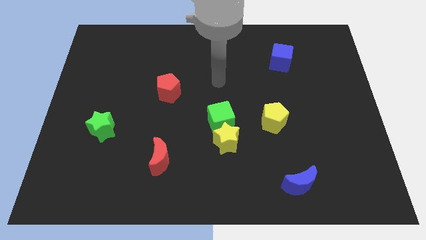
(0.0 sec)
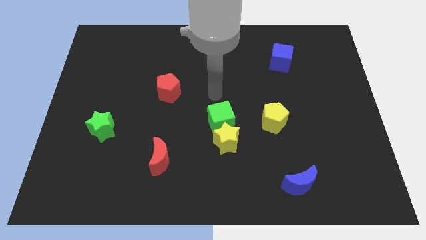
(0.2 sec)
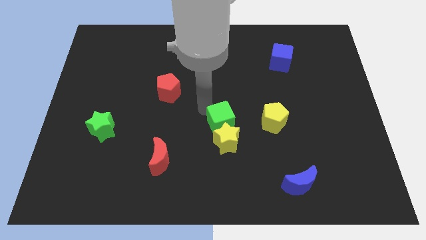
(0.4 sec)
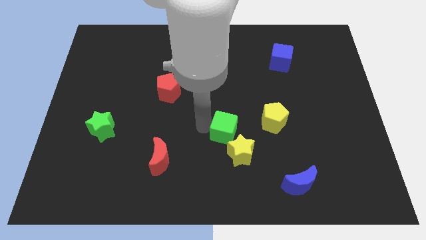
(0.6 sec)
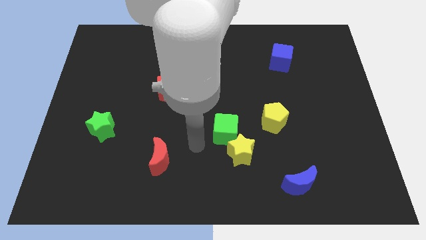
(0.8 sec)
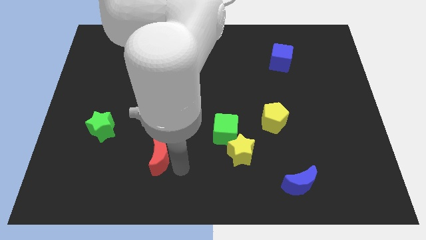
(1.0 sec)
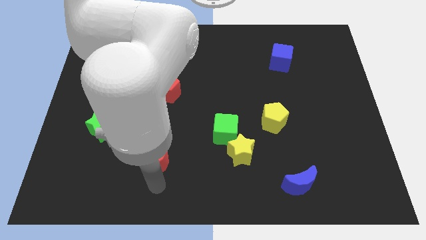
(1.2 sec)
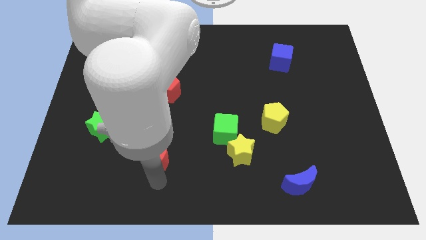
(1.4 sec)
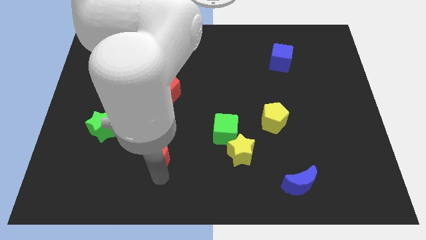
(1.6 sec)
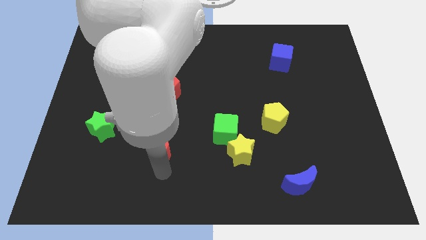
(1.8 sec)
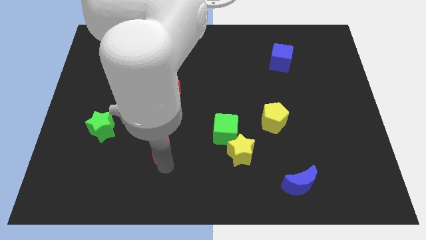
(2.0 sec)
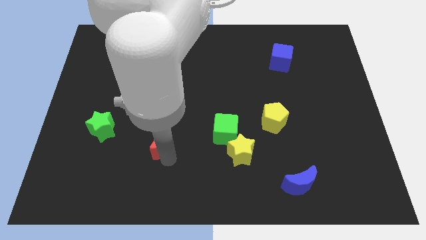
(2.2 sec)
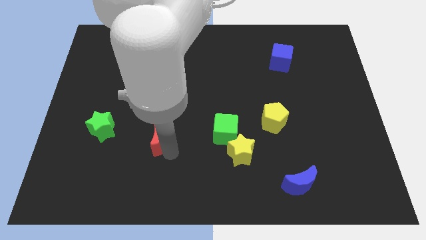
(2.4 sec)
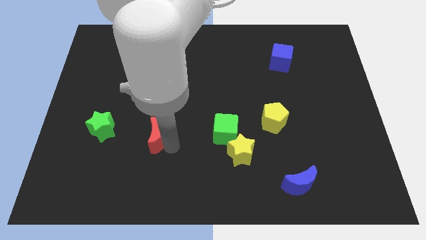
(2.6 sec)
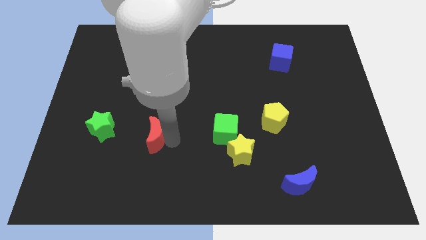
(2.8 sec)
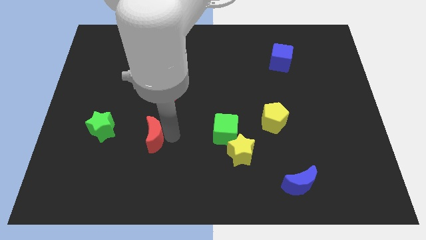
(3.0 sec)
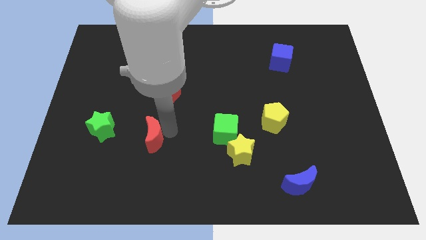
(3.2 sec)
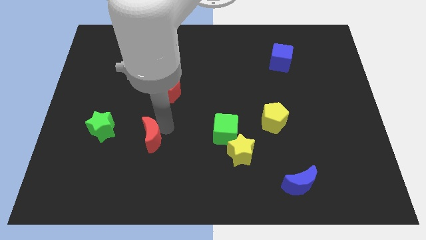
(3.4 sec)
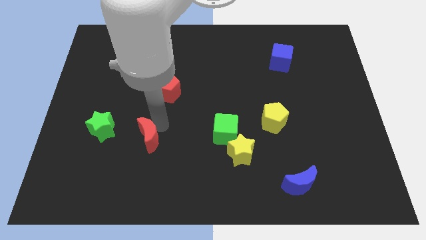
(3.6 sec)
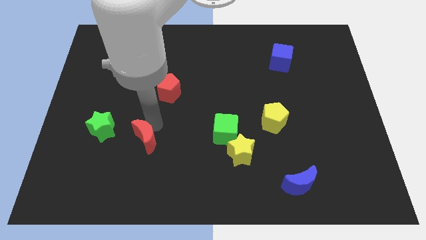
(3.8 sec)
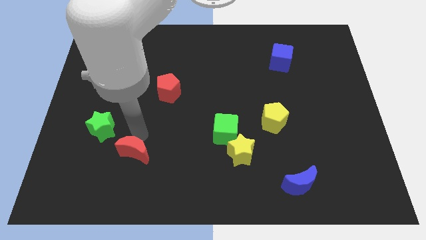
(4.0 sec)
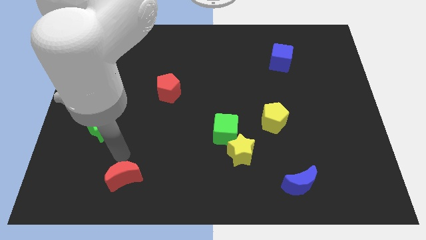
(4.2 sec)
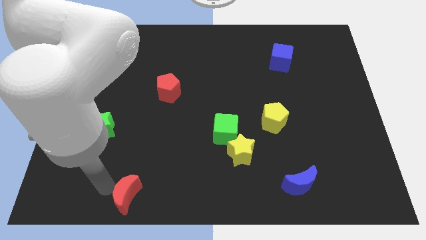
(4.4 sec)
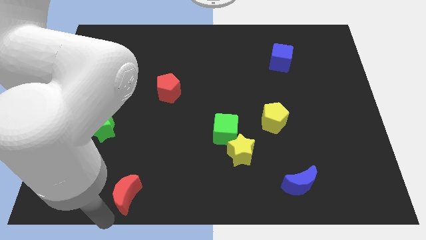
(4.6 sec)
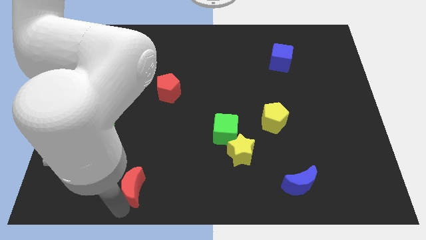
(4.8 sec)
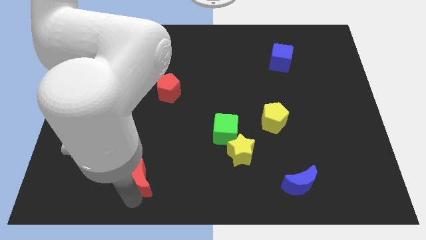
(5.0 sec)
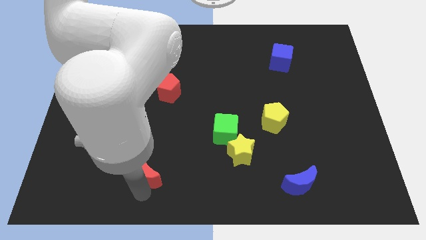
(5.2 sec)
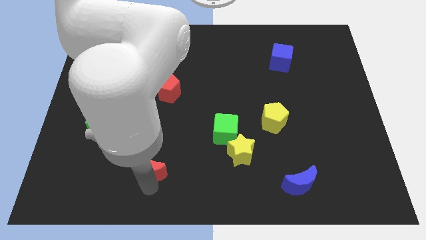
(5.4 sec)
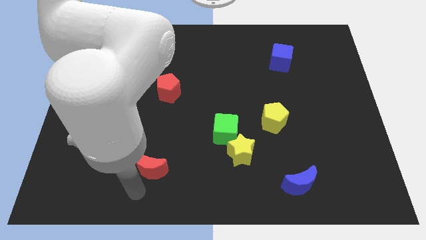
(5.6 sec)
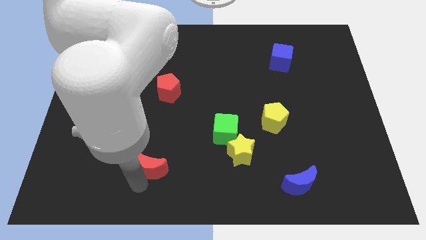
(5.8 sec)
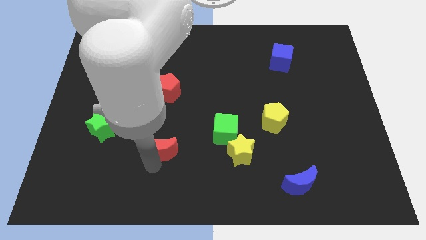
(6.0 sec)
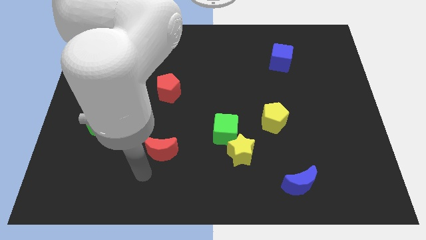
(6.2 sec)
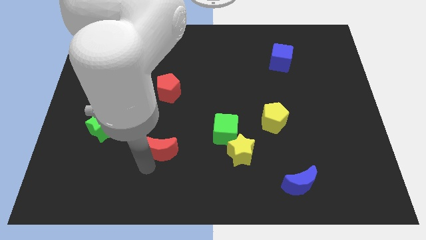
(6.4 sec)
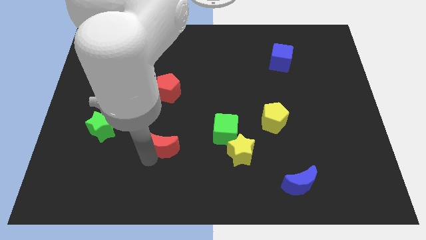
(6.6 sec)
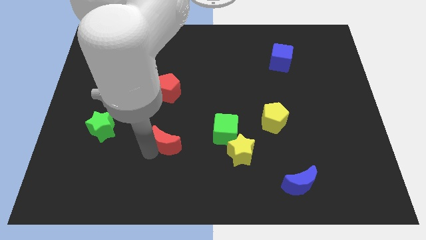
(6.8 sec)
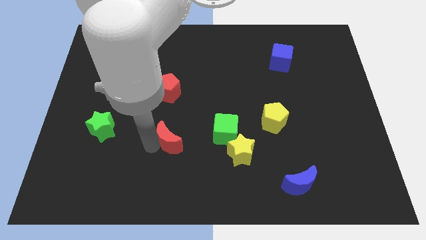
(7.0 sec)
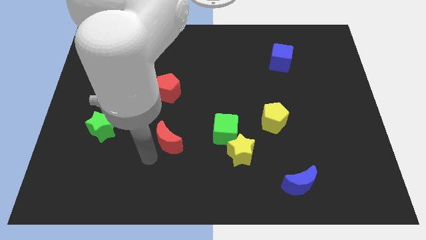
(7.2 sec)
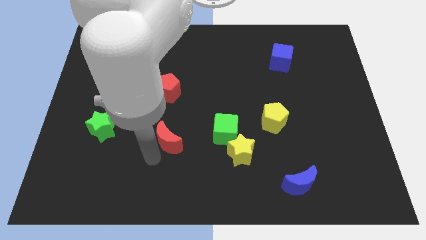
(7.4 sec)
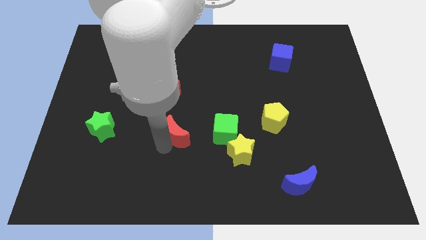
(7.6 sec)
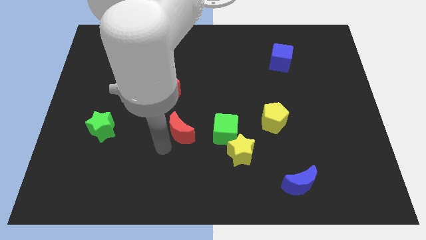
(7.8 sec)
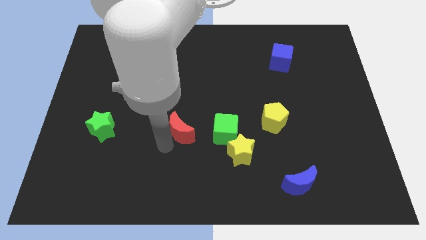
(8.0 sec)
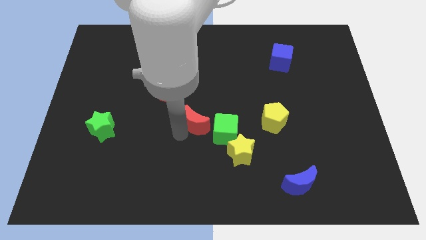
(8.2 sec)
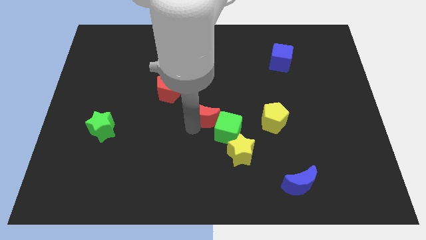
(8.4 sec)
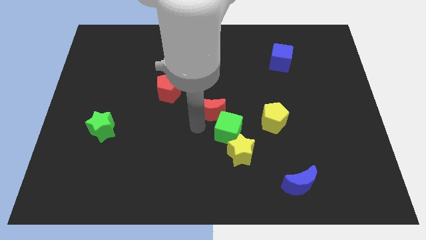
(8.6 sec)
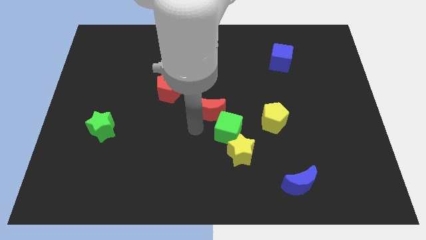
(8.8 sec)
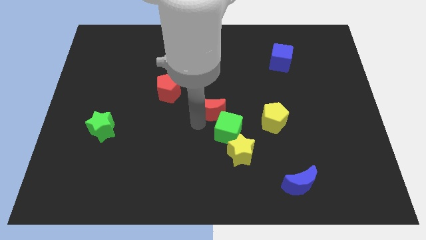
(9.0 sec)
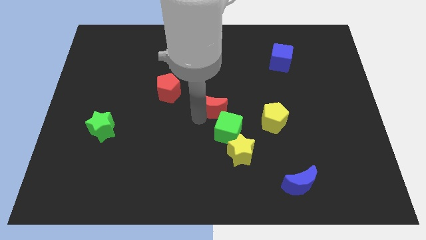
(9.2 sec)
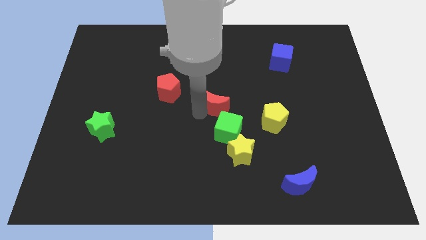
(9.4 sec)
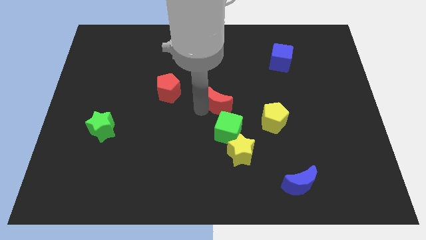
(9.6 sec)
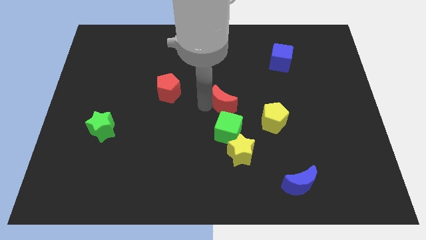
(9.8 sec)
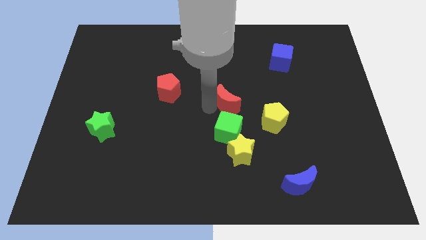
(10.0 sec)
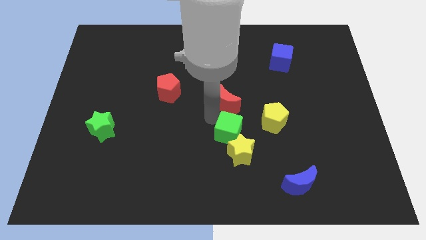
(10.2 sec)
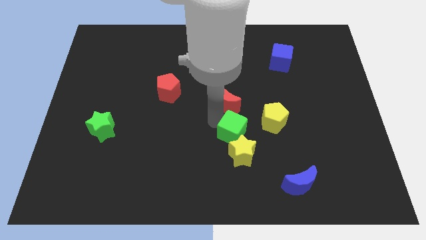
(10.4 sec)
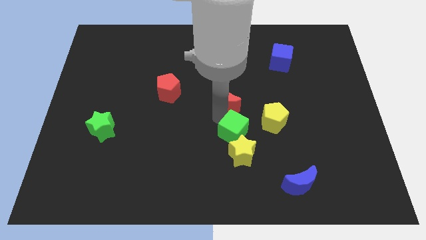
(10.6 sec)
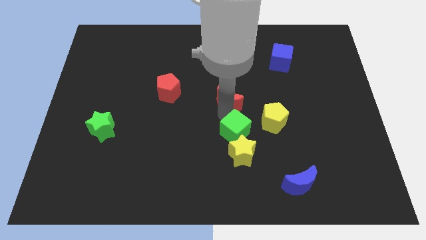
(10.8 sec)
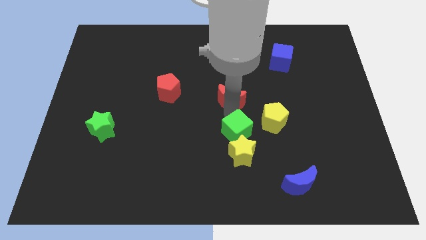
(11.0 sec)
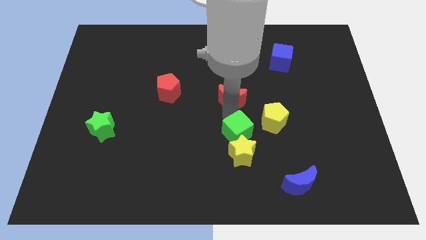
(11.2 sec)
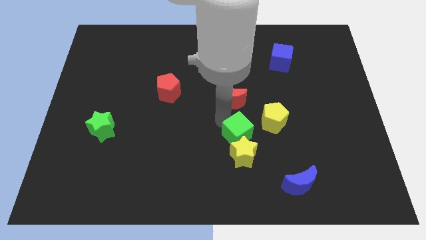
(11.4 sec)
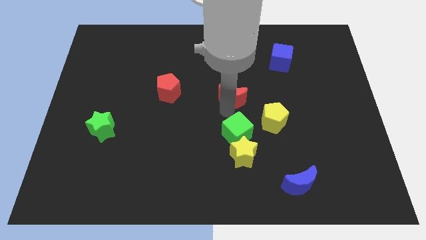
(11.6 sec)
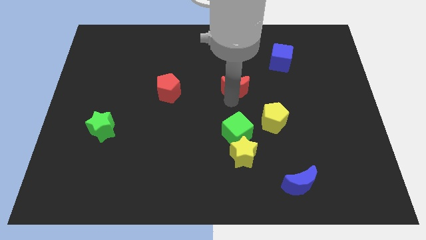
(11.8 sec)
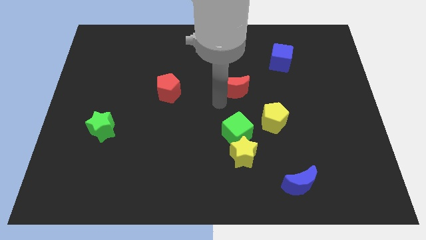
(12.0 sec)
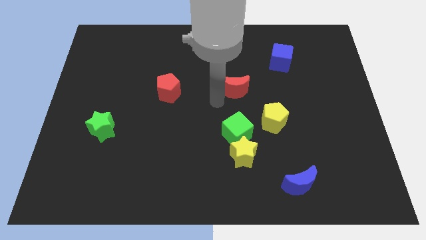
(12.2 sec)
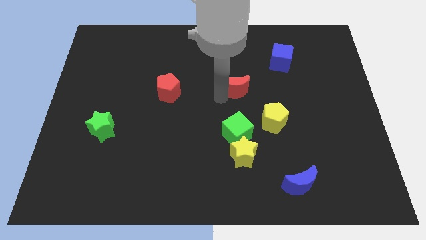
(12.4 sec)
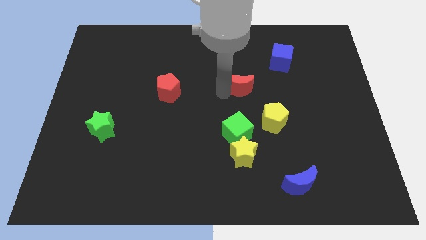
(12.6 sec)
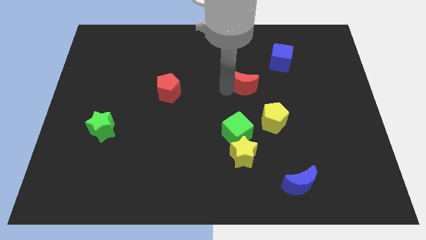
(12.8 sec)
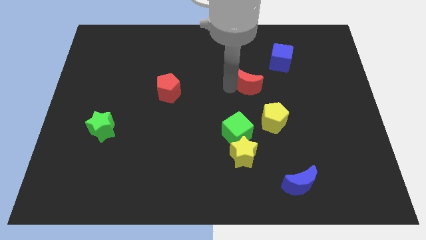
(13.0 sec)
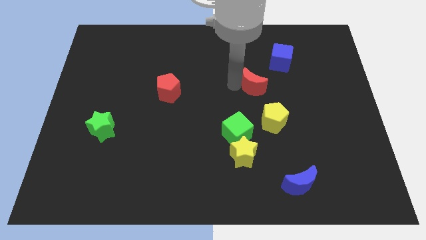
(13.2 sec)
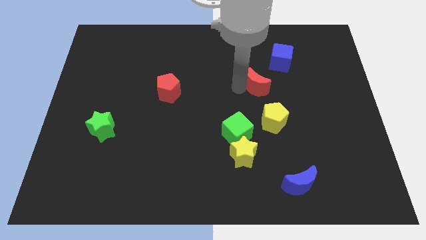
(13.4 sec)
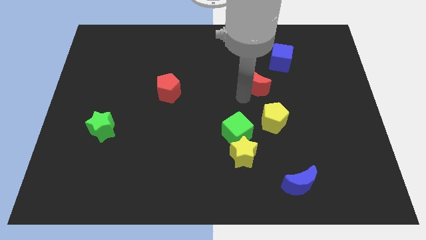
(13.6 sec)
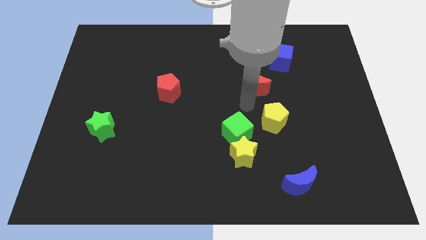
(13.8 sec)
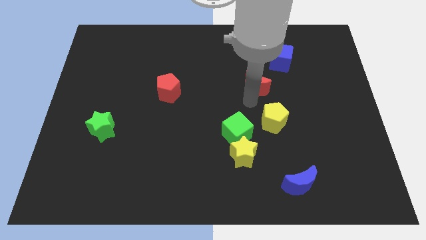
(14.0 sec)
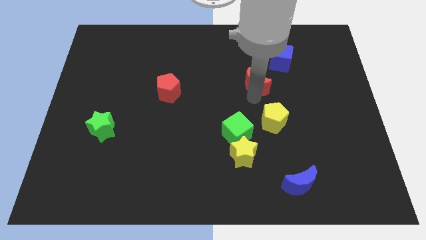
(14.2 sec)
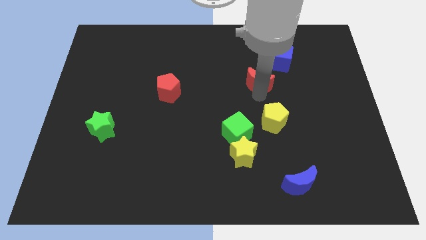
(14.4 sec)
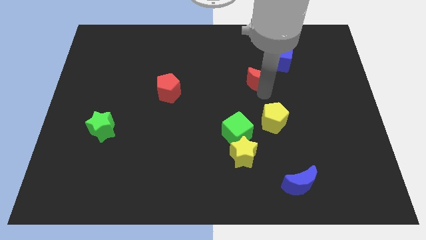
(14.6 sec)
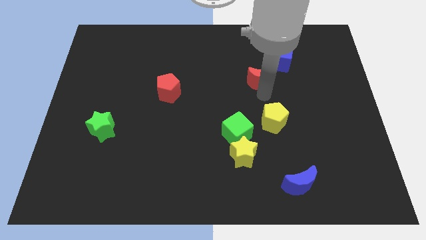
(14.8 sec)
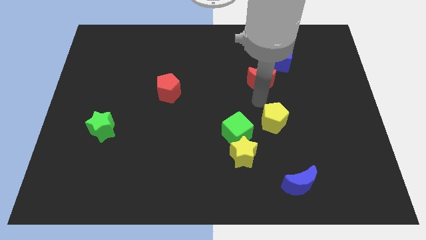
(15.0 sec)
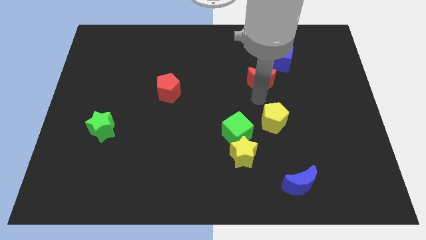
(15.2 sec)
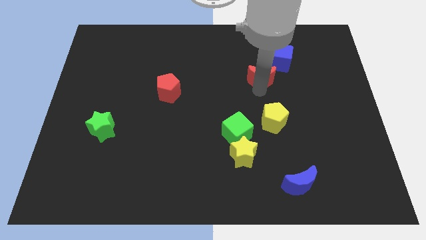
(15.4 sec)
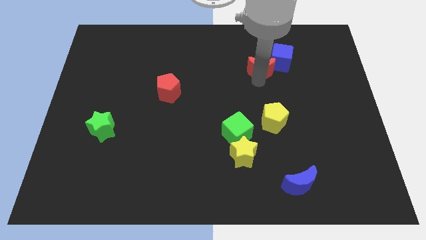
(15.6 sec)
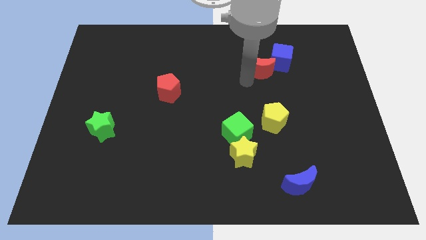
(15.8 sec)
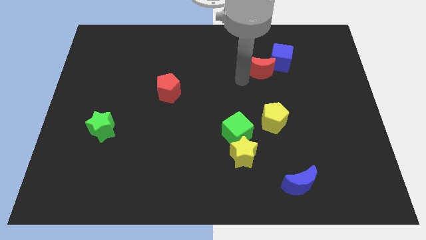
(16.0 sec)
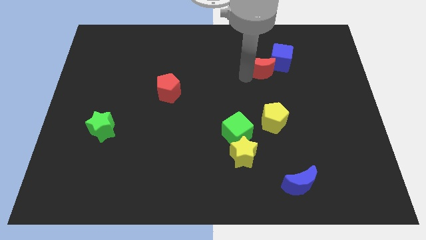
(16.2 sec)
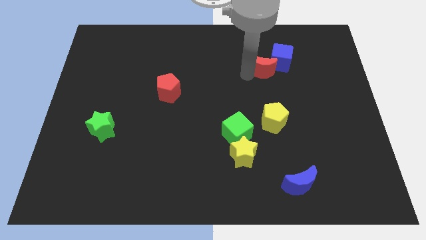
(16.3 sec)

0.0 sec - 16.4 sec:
slide the red moon close to the blue cube
